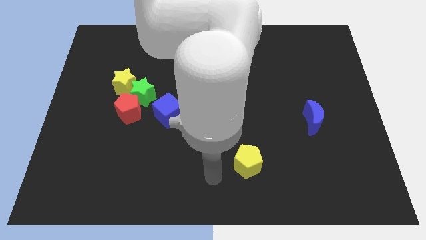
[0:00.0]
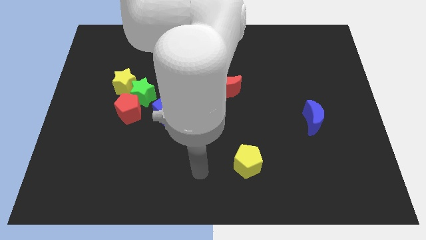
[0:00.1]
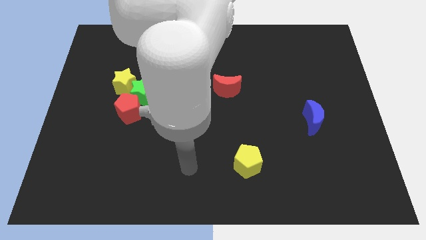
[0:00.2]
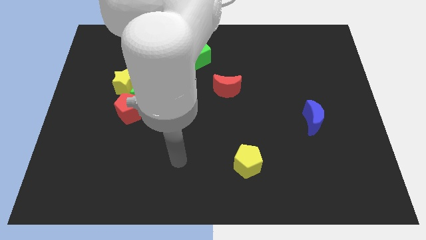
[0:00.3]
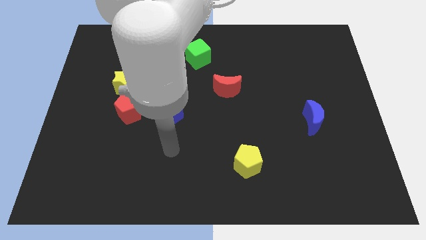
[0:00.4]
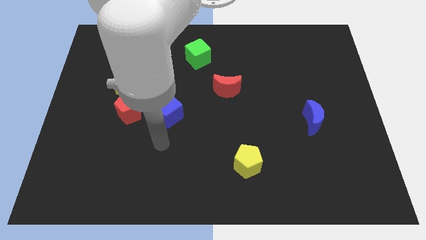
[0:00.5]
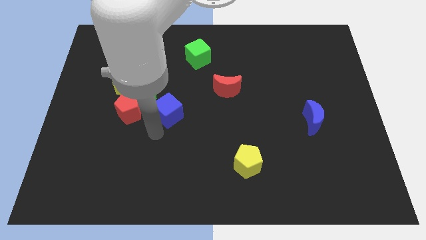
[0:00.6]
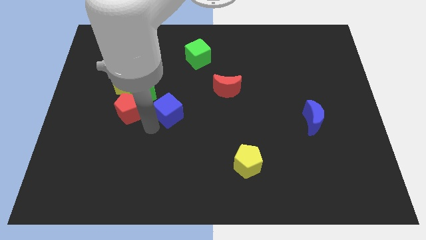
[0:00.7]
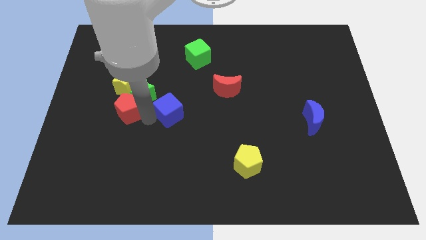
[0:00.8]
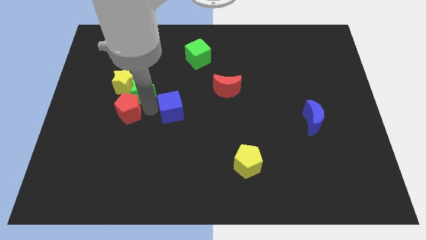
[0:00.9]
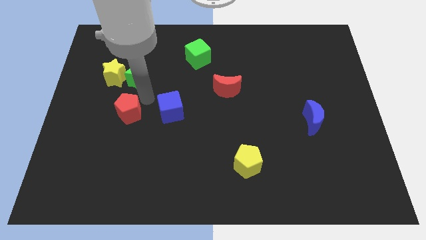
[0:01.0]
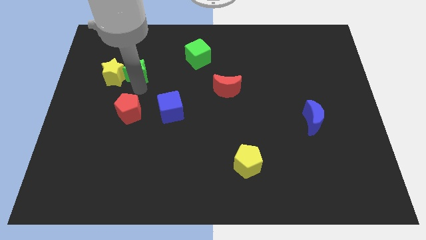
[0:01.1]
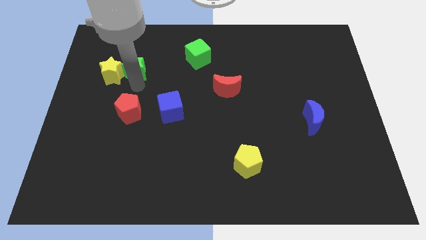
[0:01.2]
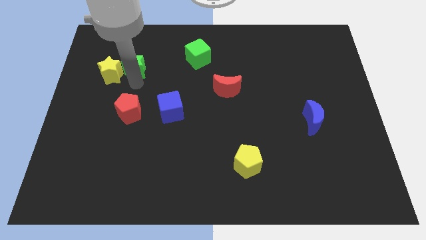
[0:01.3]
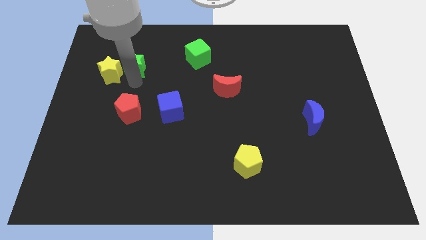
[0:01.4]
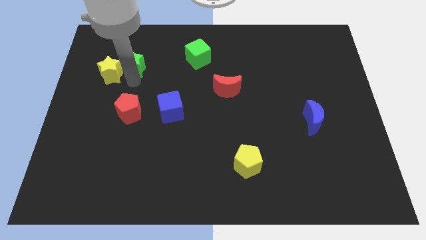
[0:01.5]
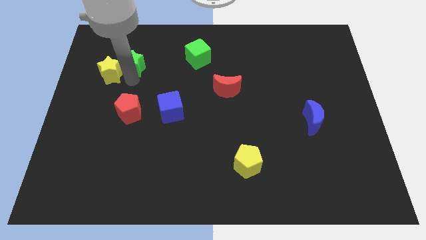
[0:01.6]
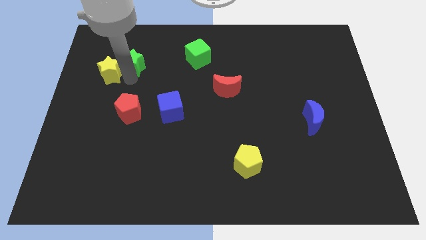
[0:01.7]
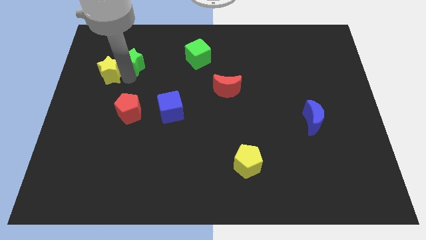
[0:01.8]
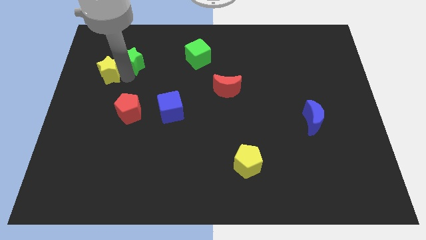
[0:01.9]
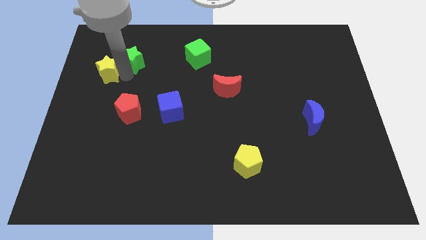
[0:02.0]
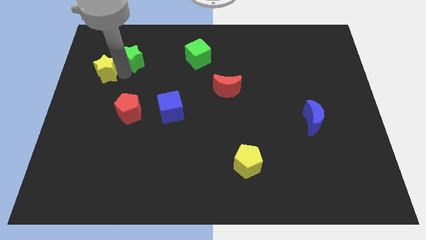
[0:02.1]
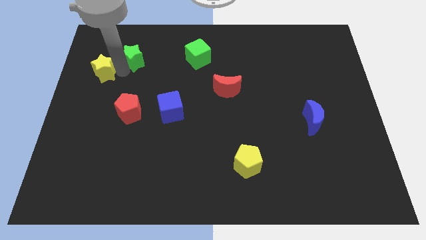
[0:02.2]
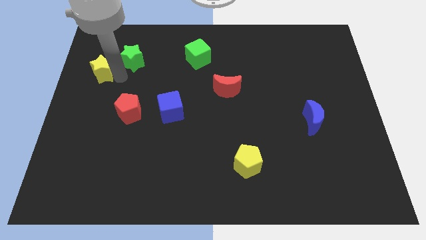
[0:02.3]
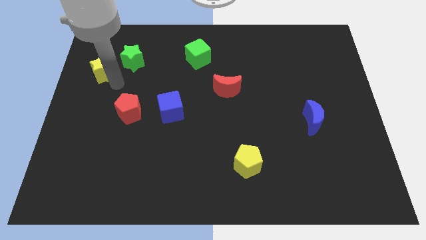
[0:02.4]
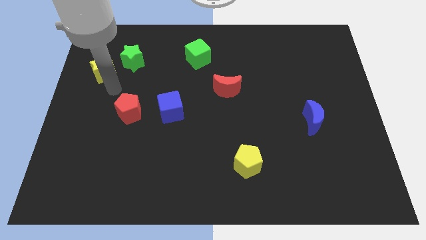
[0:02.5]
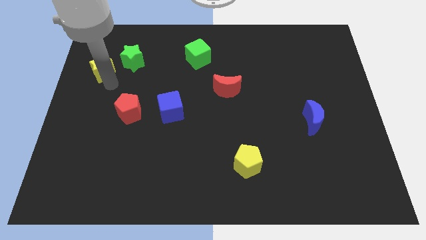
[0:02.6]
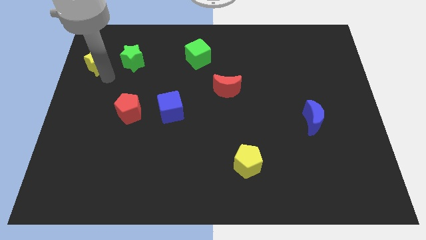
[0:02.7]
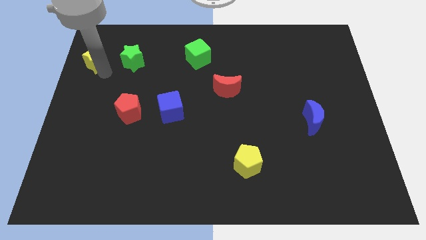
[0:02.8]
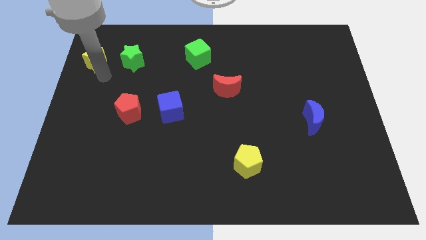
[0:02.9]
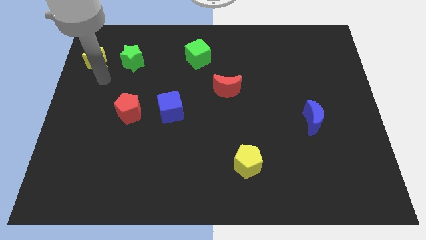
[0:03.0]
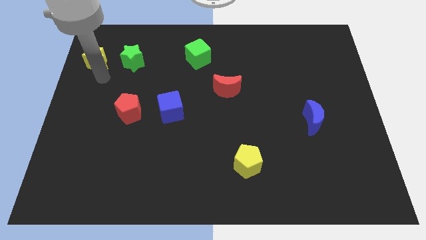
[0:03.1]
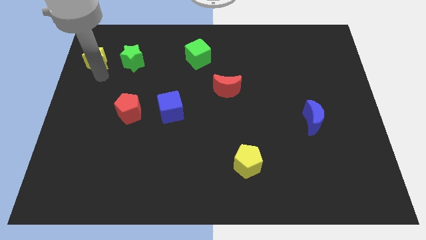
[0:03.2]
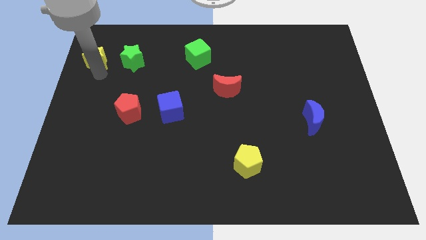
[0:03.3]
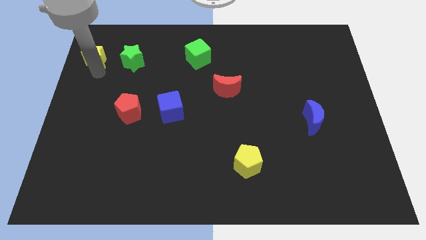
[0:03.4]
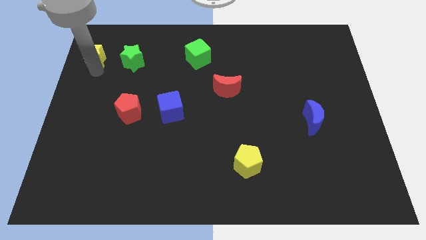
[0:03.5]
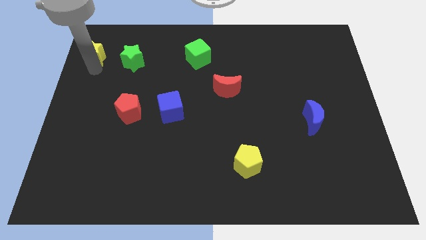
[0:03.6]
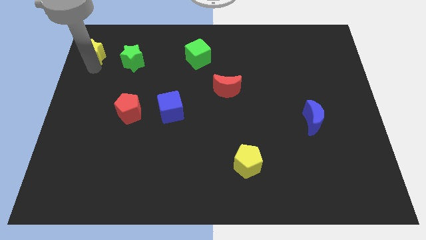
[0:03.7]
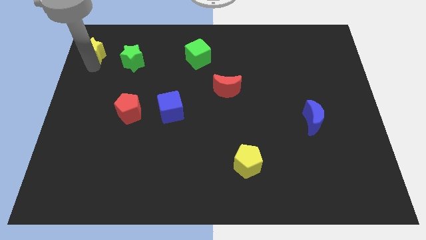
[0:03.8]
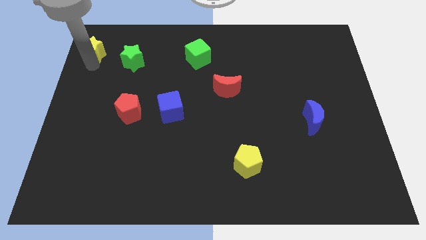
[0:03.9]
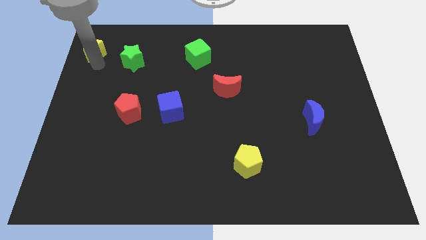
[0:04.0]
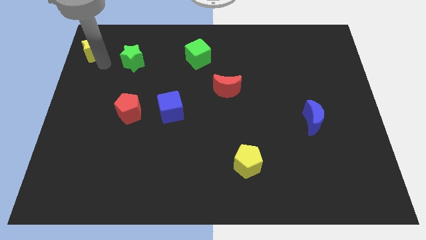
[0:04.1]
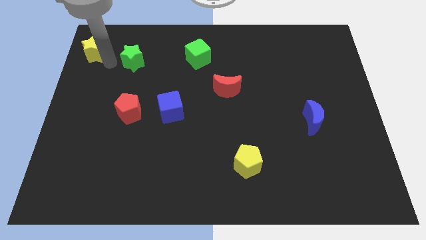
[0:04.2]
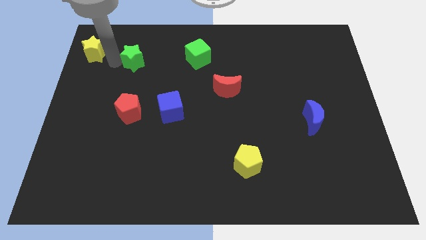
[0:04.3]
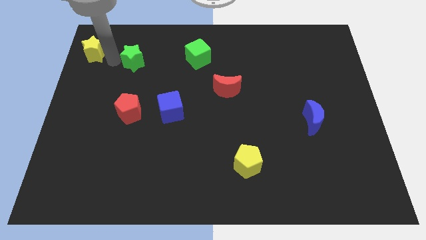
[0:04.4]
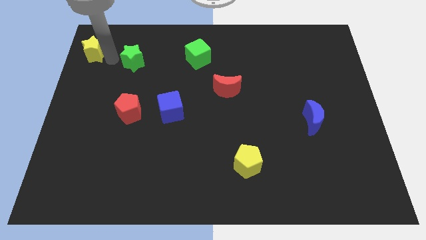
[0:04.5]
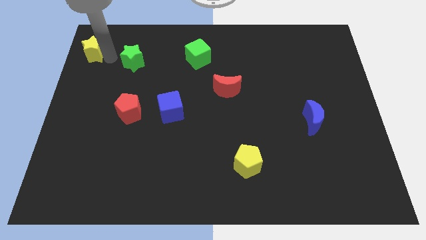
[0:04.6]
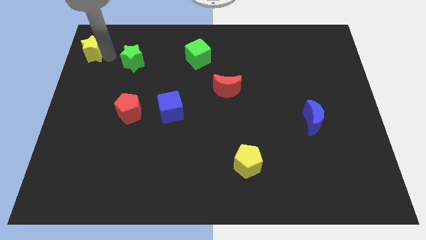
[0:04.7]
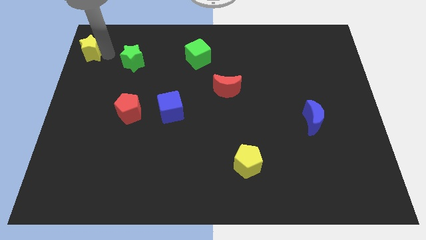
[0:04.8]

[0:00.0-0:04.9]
slide the yellow star to the top left

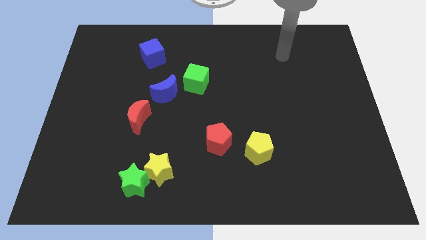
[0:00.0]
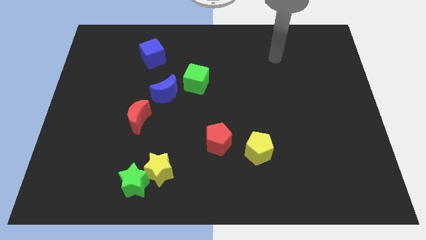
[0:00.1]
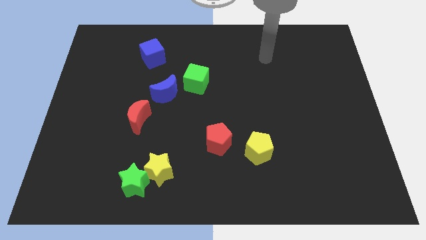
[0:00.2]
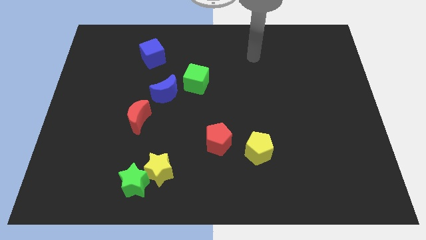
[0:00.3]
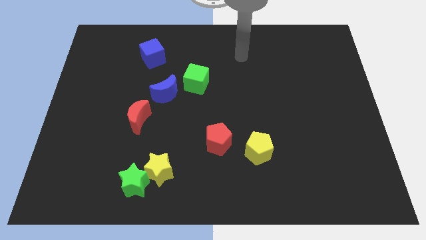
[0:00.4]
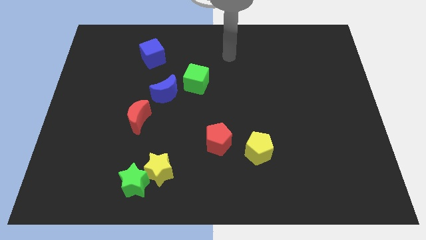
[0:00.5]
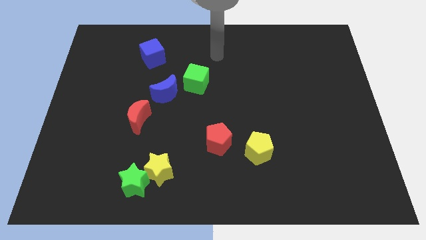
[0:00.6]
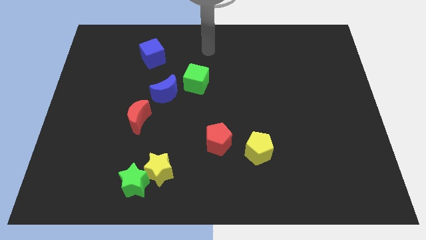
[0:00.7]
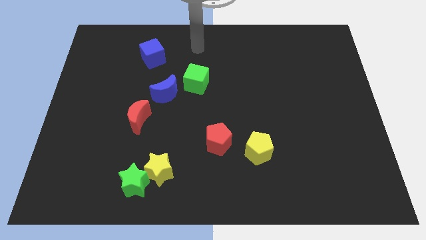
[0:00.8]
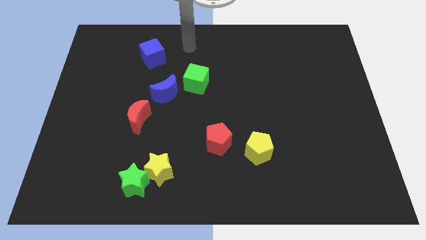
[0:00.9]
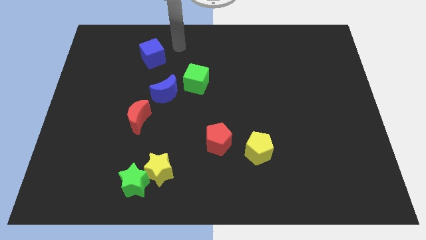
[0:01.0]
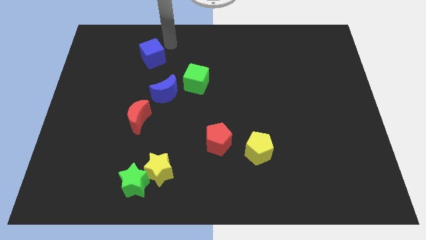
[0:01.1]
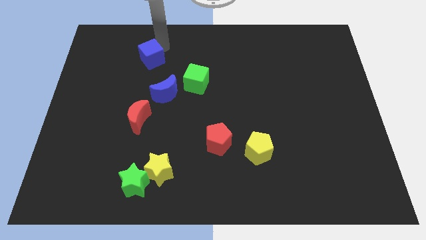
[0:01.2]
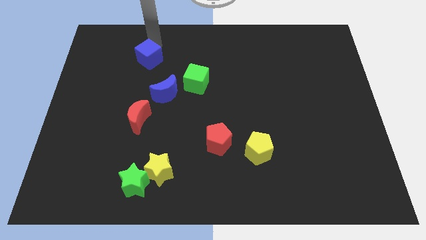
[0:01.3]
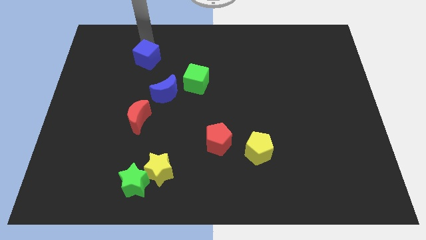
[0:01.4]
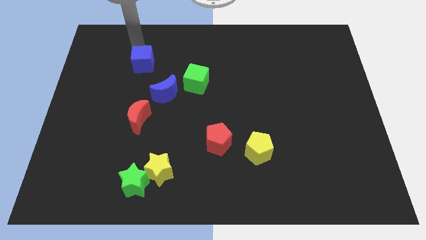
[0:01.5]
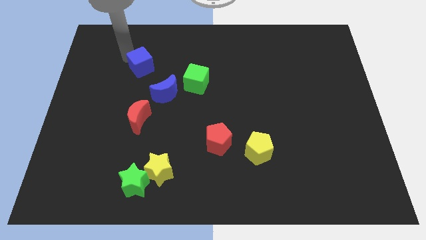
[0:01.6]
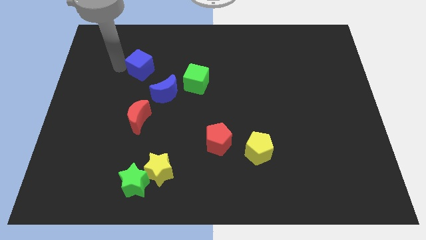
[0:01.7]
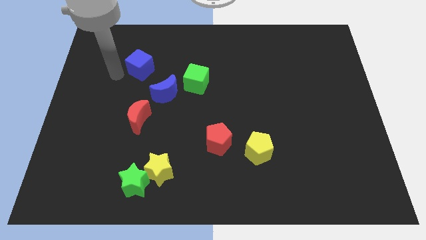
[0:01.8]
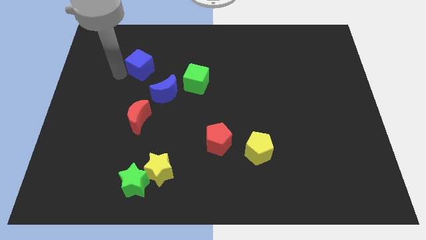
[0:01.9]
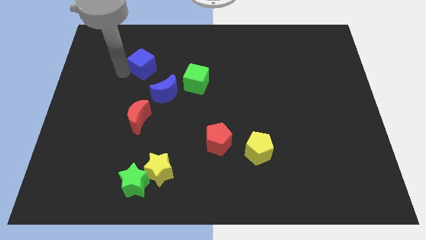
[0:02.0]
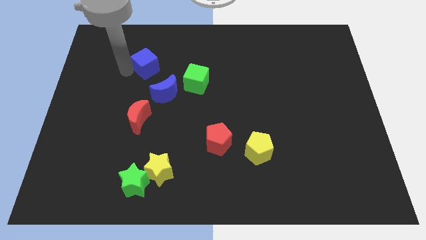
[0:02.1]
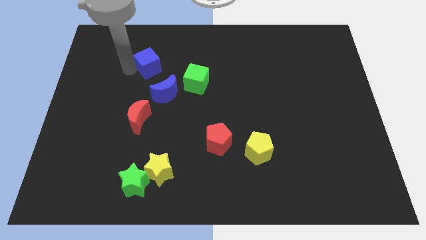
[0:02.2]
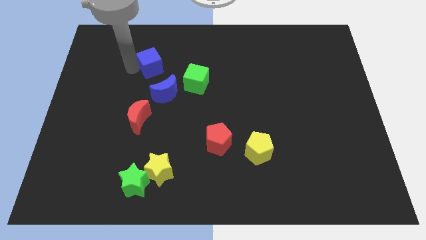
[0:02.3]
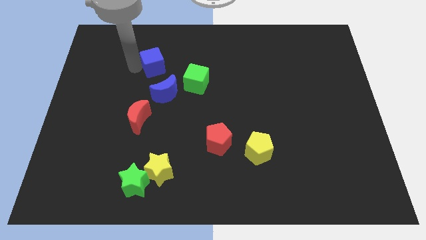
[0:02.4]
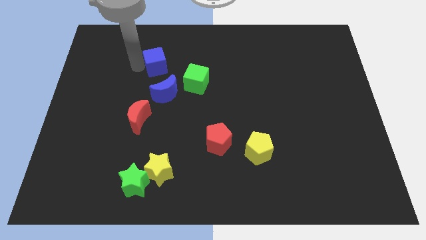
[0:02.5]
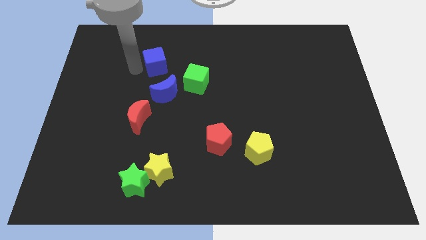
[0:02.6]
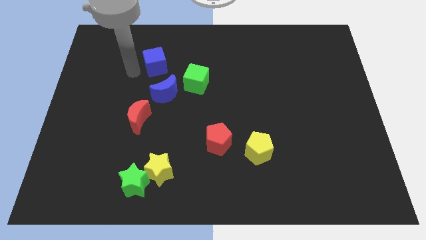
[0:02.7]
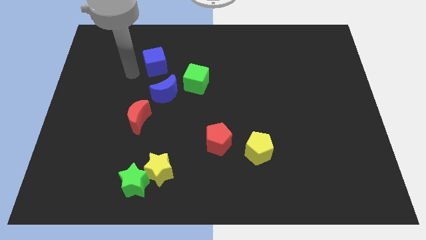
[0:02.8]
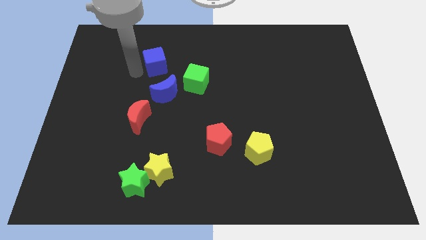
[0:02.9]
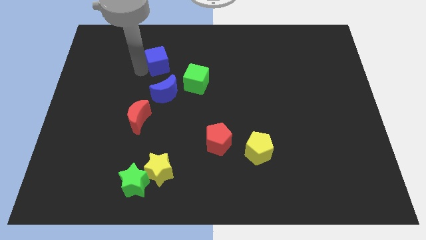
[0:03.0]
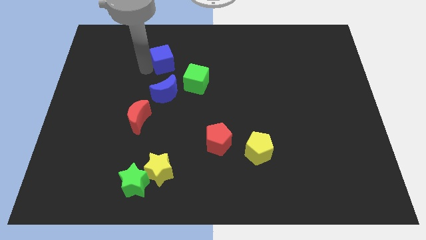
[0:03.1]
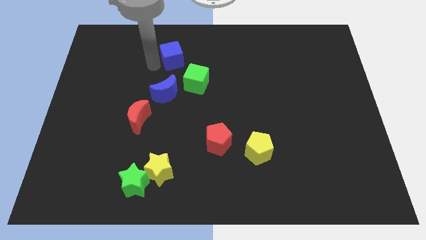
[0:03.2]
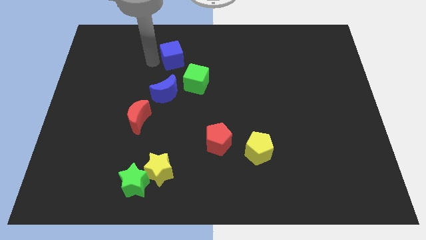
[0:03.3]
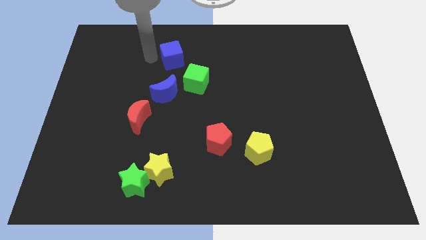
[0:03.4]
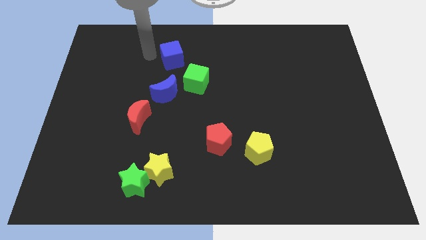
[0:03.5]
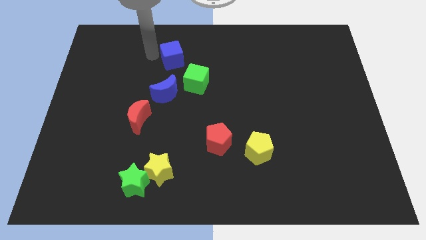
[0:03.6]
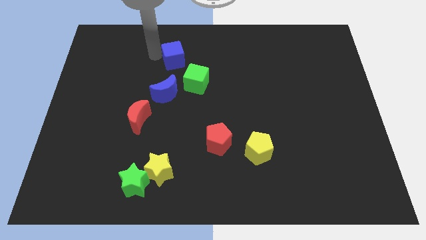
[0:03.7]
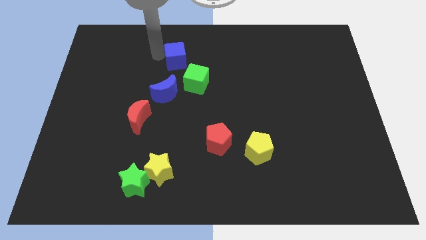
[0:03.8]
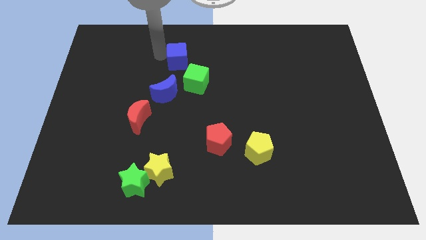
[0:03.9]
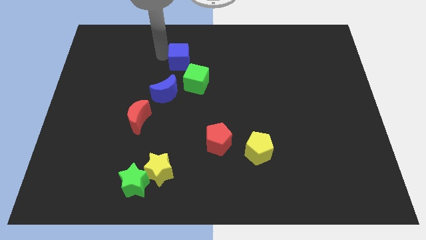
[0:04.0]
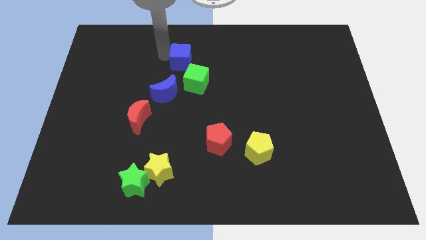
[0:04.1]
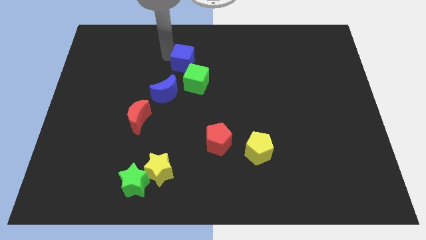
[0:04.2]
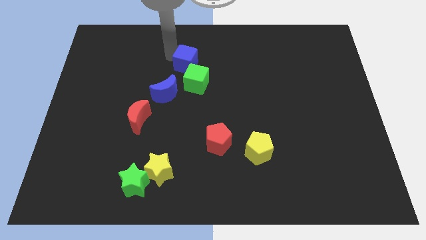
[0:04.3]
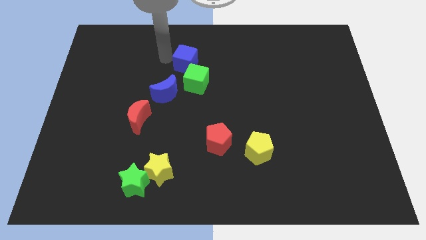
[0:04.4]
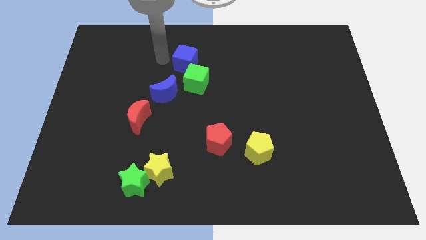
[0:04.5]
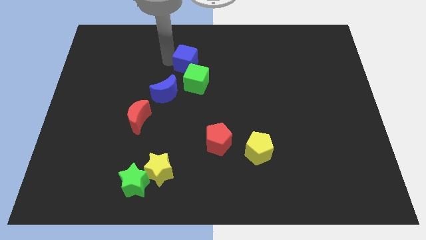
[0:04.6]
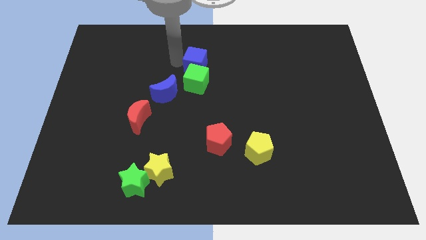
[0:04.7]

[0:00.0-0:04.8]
put the blue cube to the center
